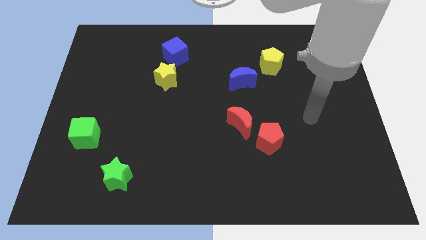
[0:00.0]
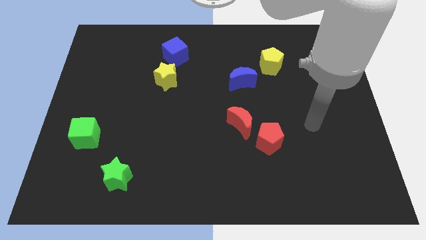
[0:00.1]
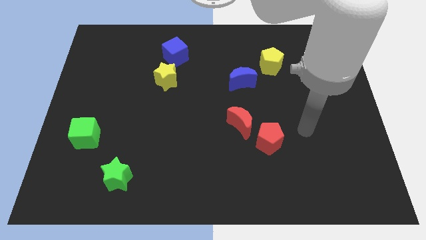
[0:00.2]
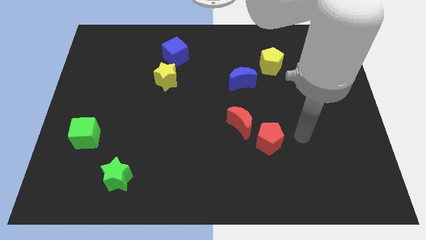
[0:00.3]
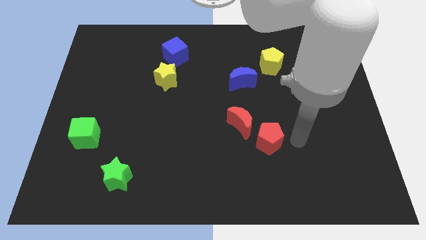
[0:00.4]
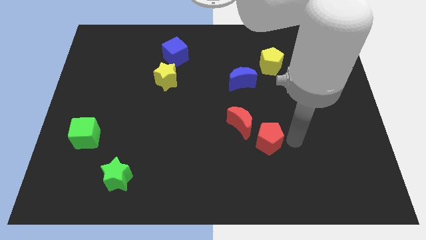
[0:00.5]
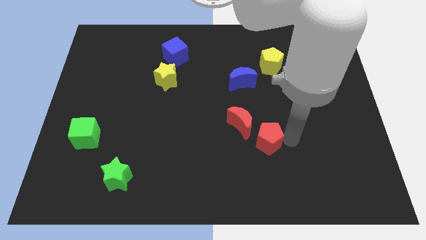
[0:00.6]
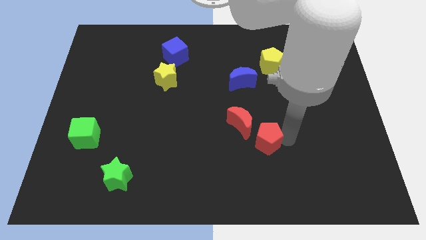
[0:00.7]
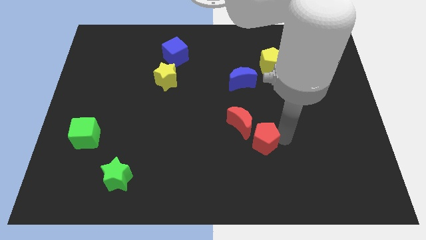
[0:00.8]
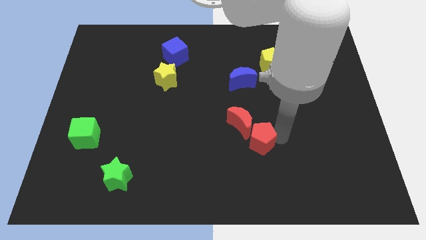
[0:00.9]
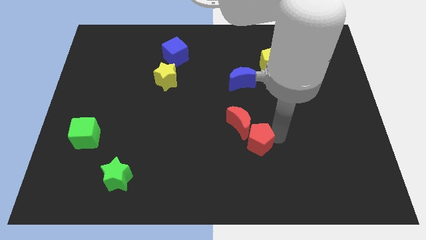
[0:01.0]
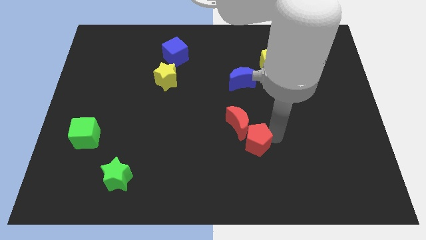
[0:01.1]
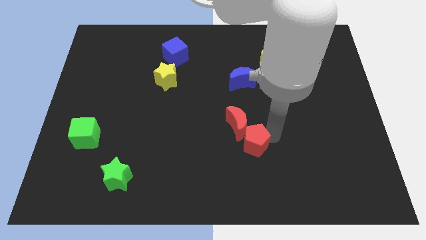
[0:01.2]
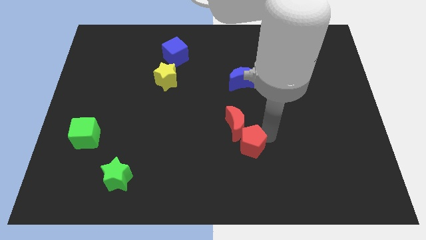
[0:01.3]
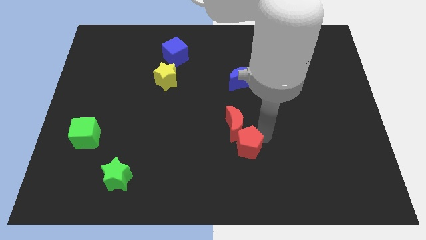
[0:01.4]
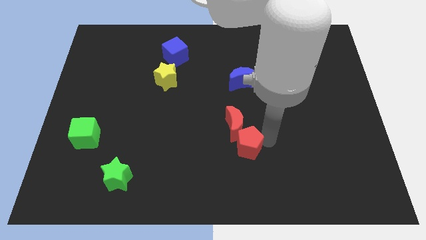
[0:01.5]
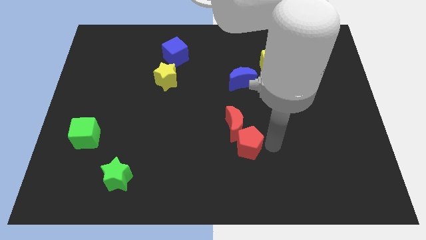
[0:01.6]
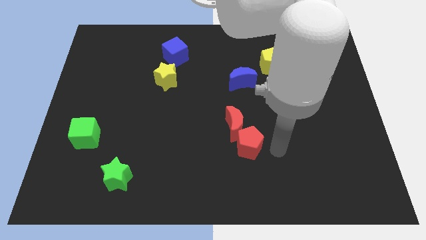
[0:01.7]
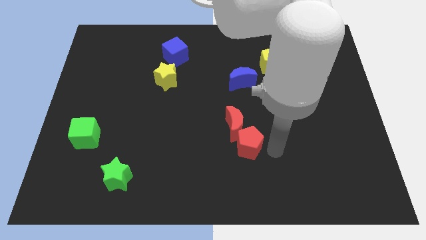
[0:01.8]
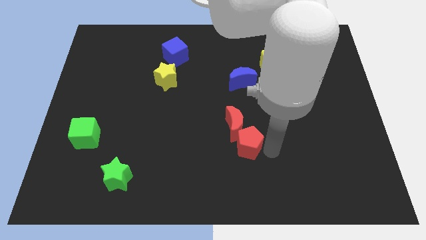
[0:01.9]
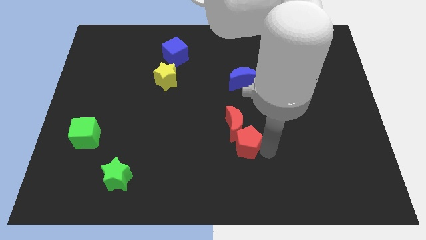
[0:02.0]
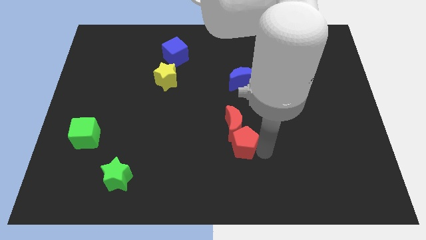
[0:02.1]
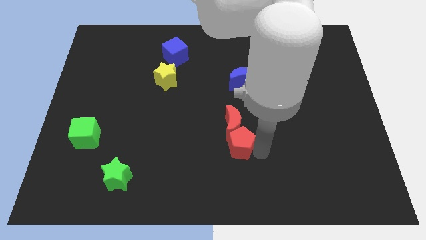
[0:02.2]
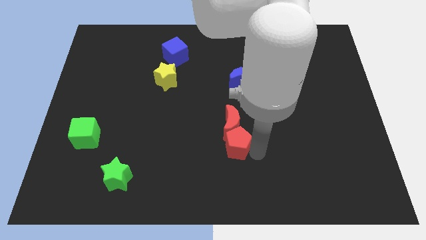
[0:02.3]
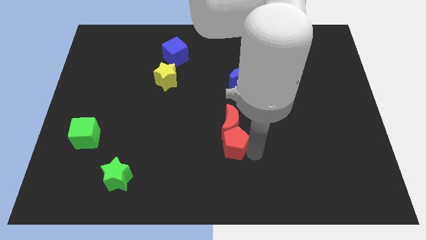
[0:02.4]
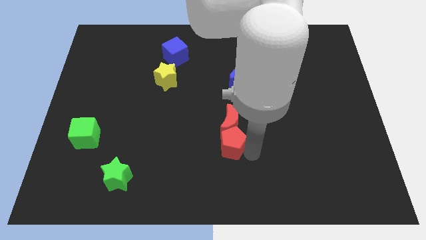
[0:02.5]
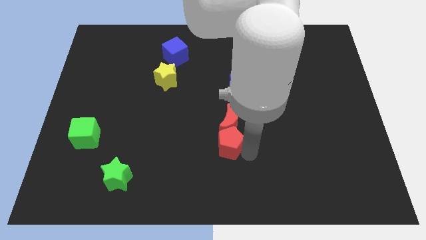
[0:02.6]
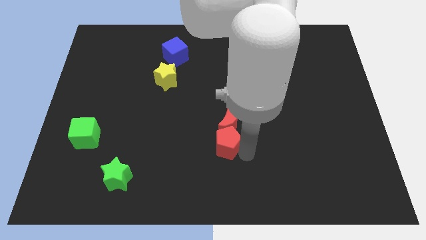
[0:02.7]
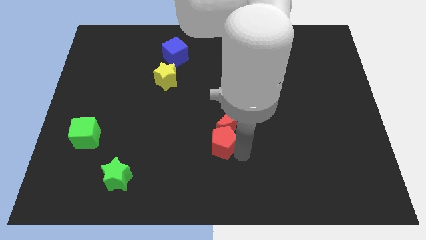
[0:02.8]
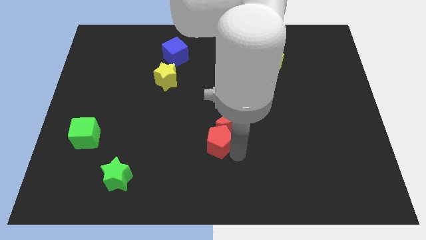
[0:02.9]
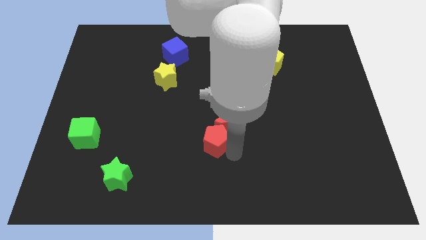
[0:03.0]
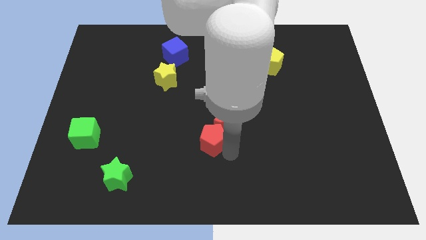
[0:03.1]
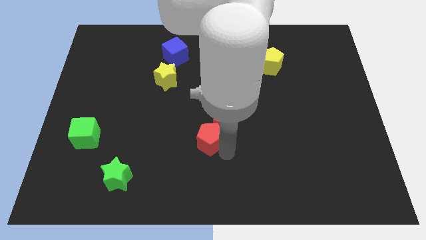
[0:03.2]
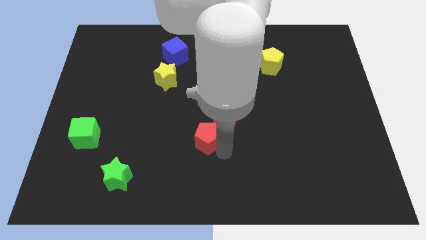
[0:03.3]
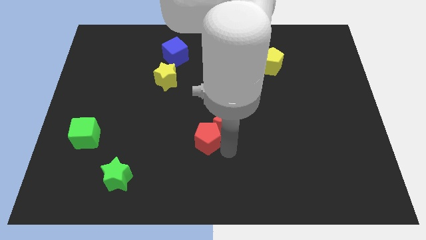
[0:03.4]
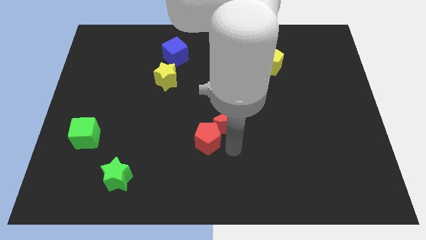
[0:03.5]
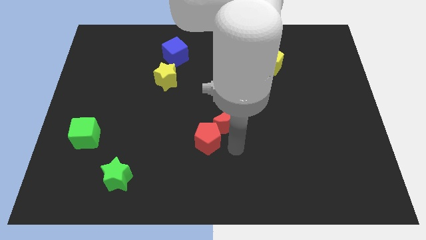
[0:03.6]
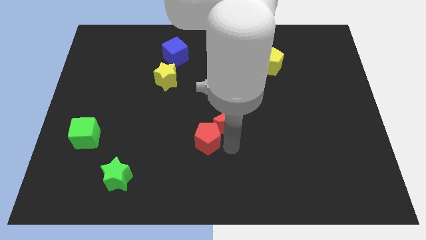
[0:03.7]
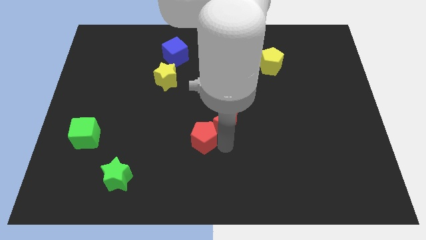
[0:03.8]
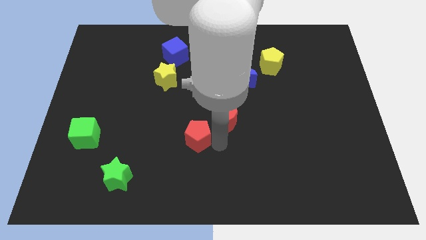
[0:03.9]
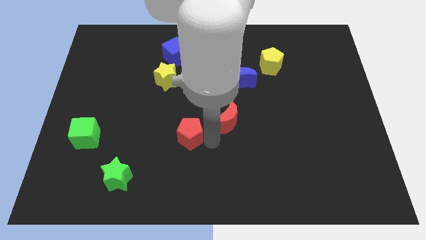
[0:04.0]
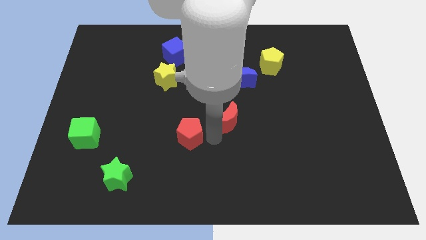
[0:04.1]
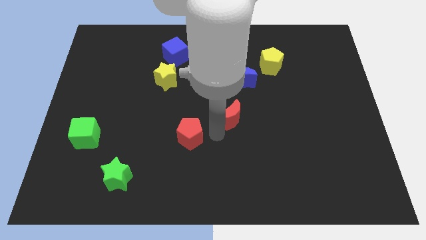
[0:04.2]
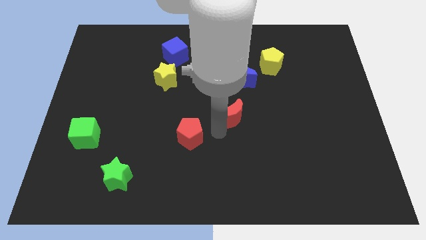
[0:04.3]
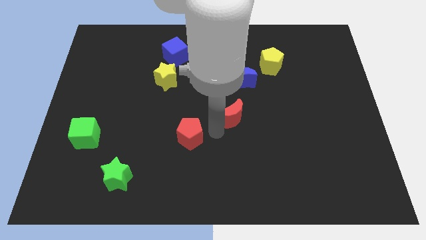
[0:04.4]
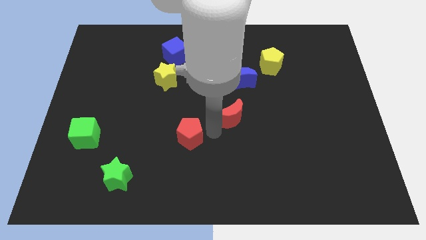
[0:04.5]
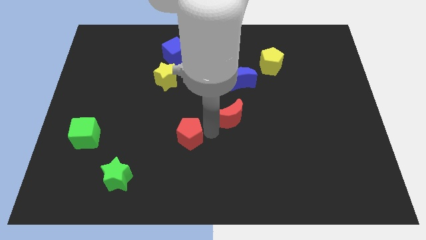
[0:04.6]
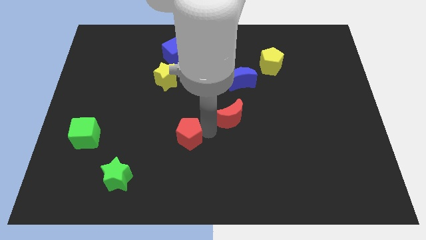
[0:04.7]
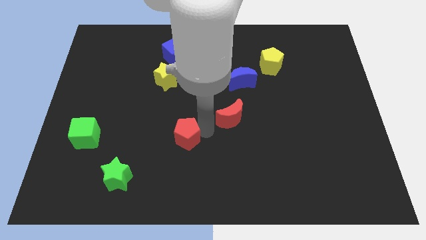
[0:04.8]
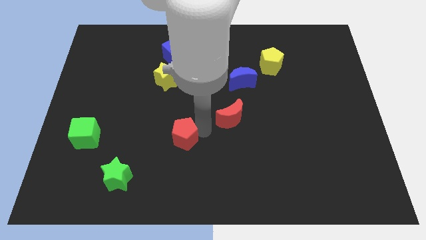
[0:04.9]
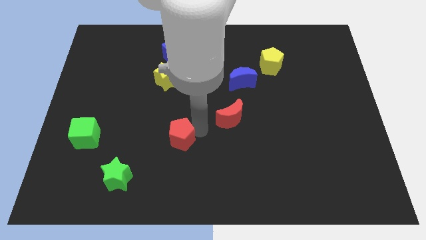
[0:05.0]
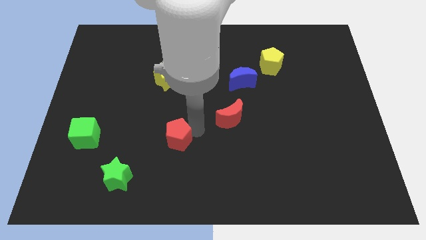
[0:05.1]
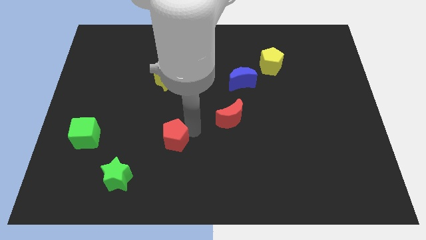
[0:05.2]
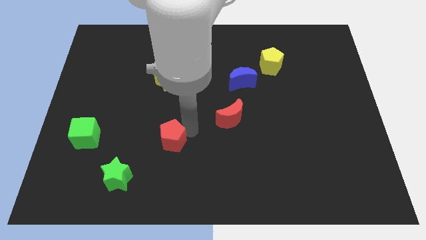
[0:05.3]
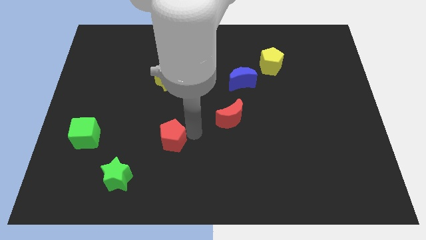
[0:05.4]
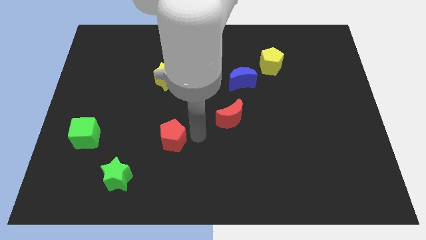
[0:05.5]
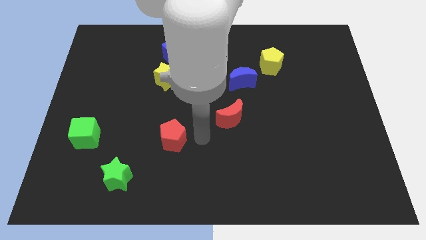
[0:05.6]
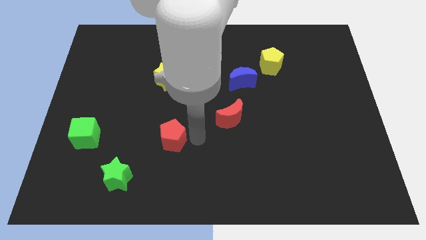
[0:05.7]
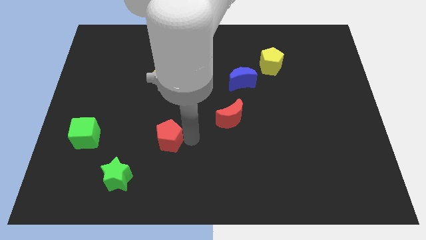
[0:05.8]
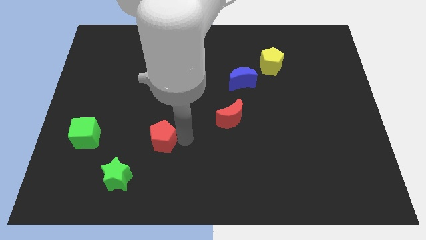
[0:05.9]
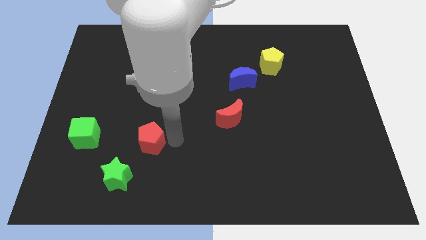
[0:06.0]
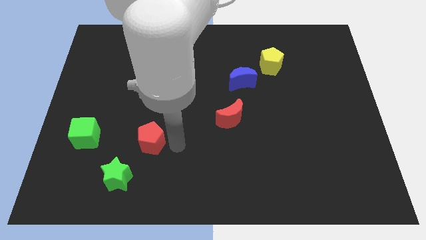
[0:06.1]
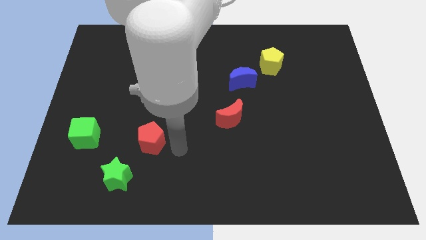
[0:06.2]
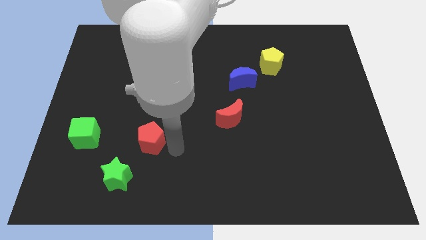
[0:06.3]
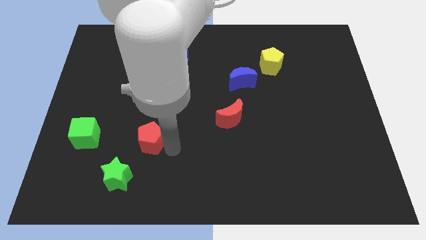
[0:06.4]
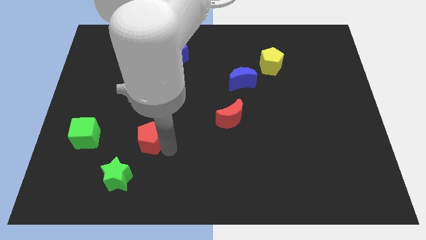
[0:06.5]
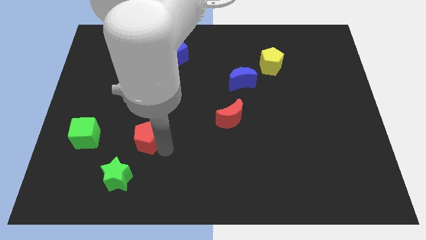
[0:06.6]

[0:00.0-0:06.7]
push the red pentagon to the top of the green star

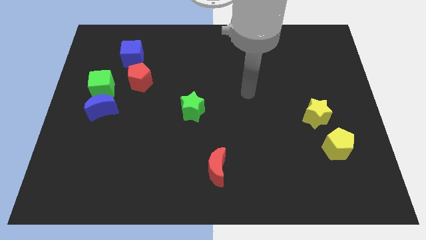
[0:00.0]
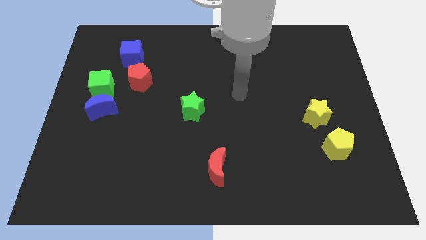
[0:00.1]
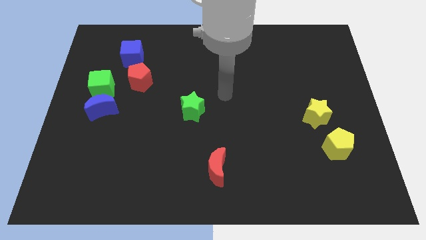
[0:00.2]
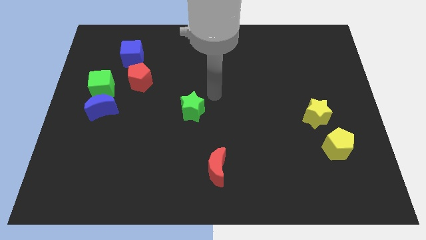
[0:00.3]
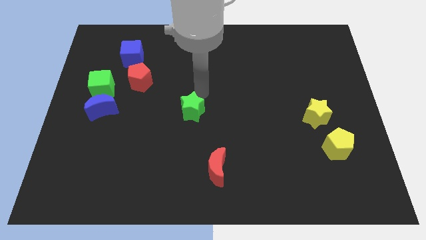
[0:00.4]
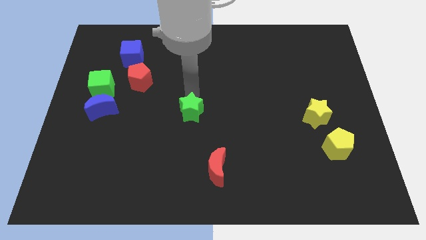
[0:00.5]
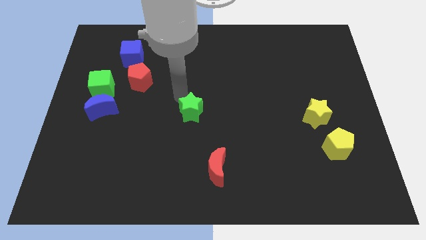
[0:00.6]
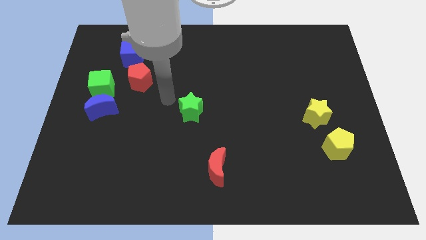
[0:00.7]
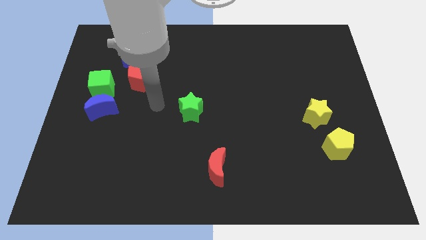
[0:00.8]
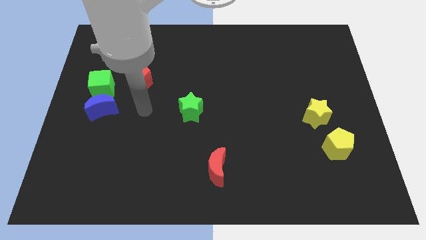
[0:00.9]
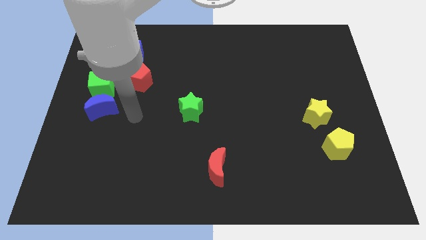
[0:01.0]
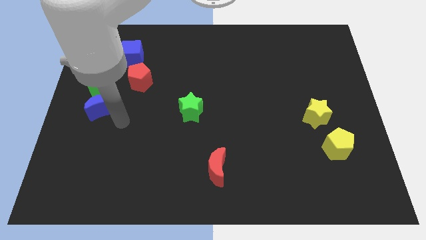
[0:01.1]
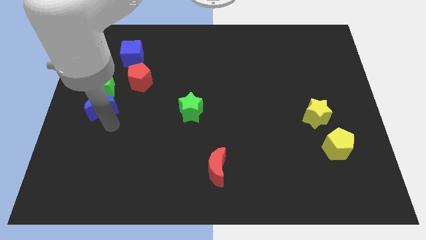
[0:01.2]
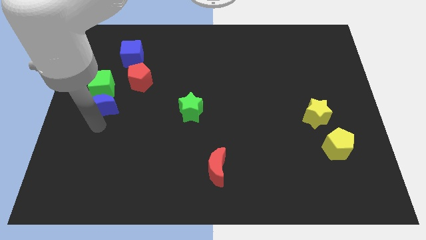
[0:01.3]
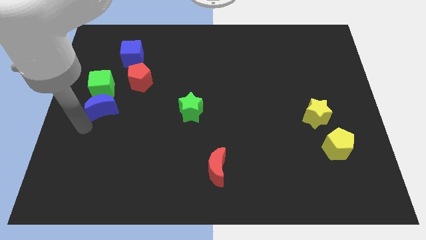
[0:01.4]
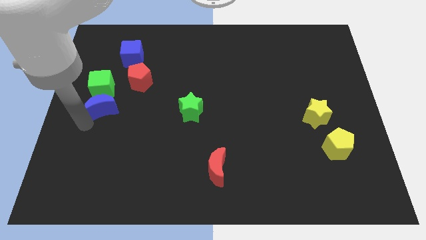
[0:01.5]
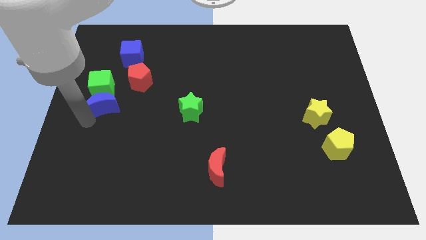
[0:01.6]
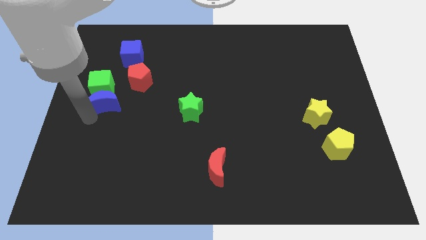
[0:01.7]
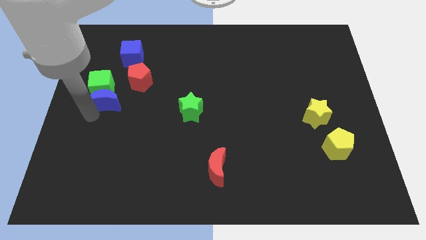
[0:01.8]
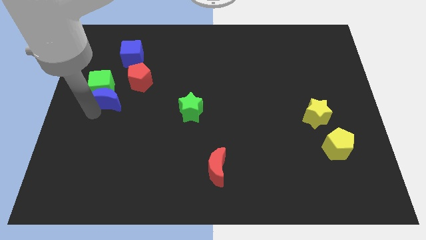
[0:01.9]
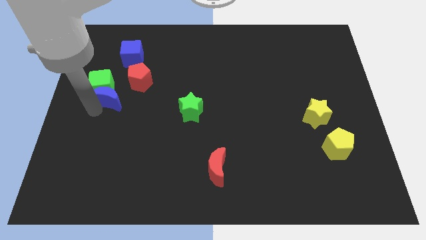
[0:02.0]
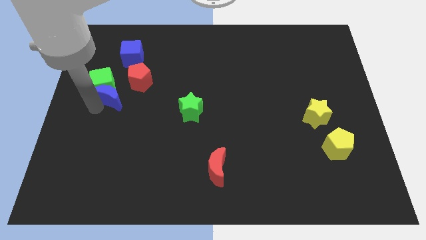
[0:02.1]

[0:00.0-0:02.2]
put the blue moon to the bottom of the blue cube
